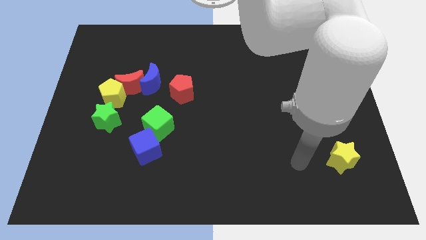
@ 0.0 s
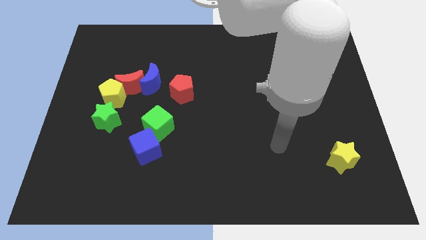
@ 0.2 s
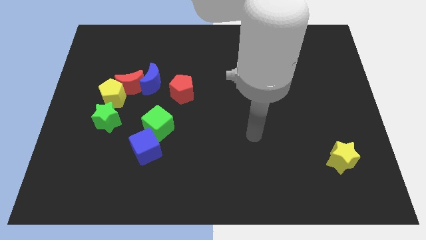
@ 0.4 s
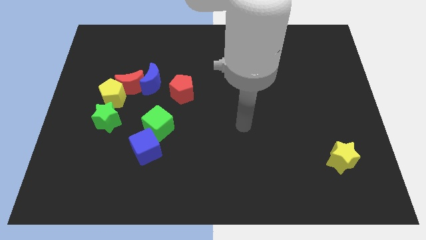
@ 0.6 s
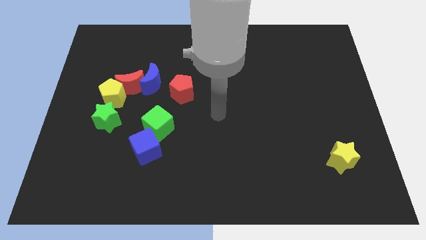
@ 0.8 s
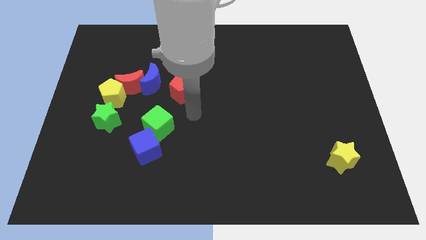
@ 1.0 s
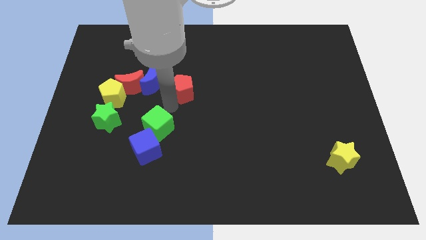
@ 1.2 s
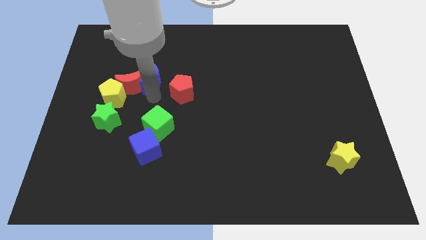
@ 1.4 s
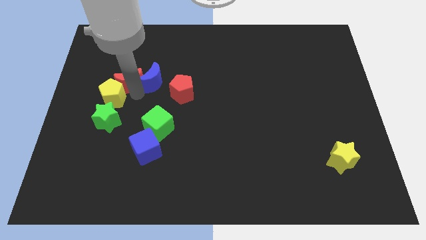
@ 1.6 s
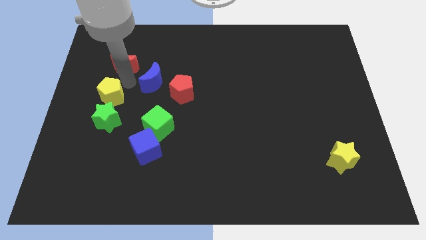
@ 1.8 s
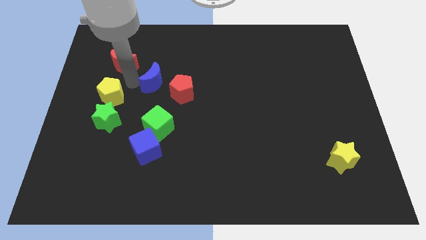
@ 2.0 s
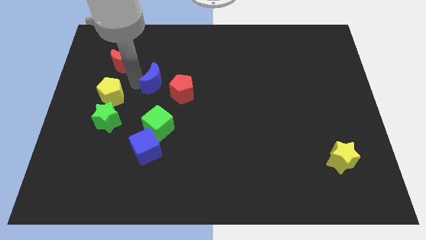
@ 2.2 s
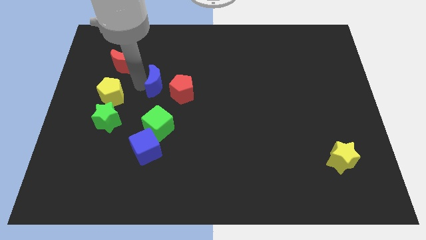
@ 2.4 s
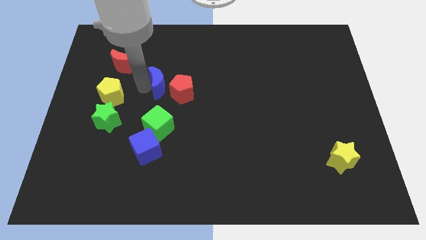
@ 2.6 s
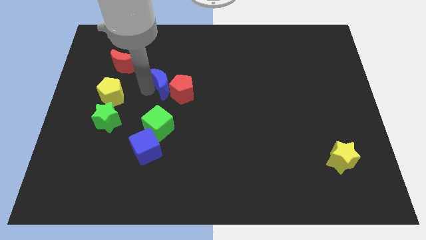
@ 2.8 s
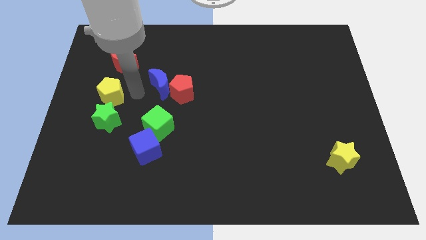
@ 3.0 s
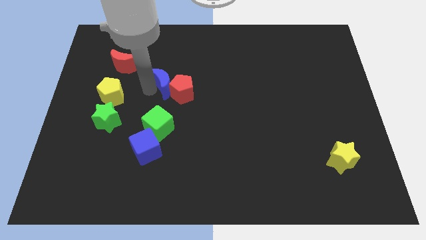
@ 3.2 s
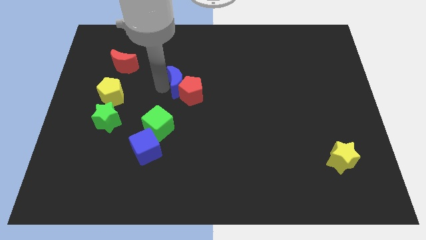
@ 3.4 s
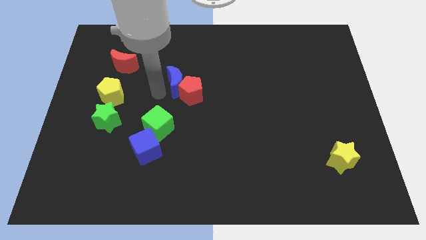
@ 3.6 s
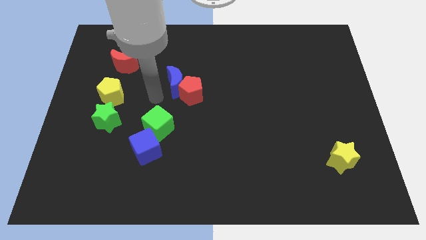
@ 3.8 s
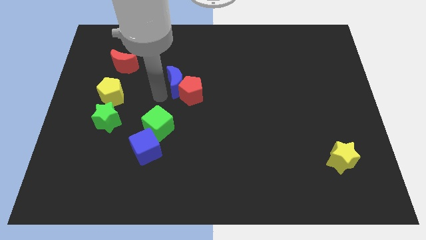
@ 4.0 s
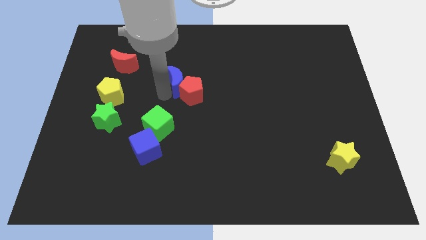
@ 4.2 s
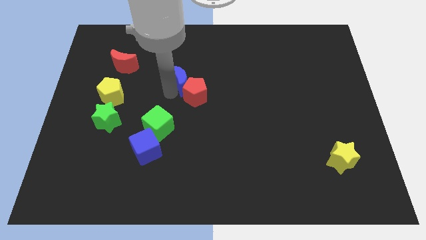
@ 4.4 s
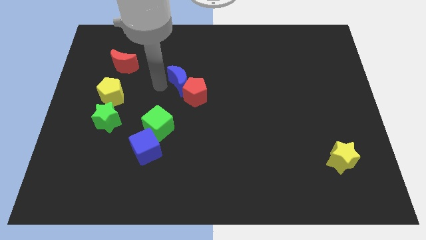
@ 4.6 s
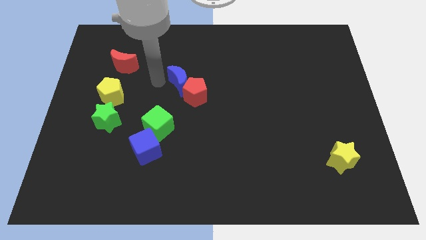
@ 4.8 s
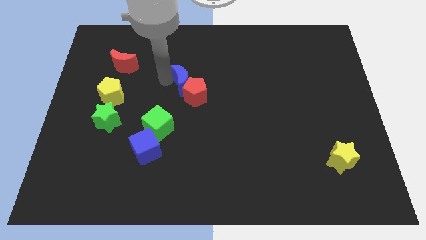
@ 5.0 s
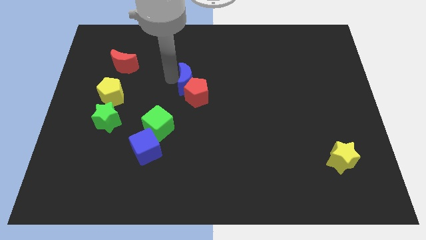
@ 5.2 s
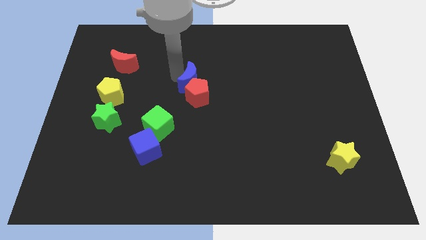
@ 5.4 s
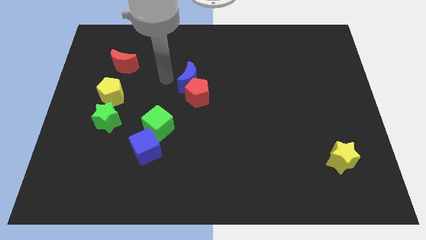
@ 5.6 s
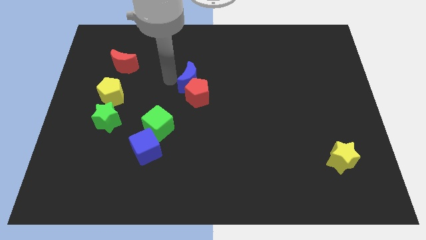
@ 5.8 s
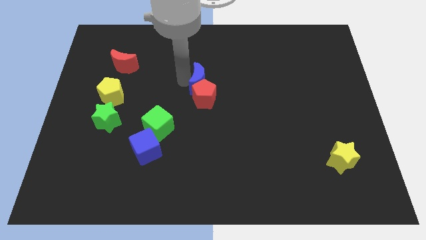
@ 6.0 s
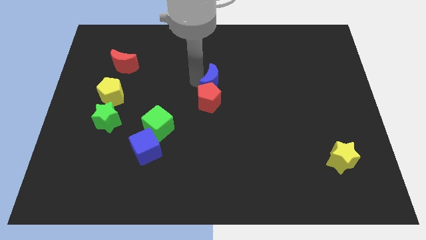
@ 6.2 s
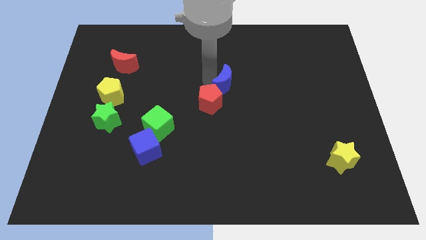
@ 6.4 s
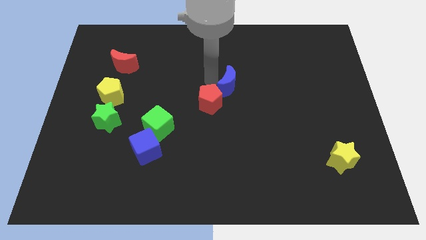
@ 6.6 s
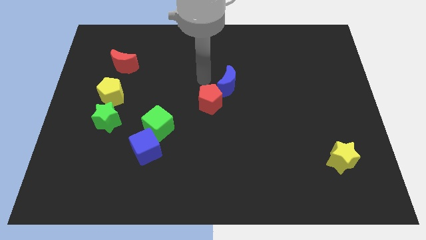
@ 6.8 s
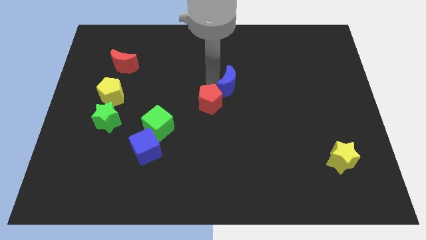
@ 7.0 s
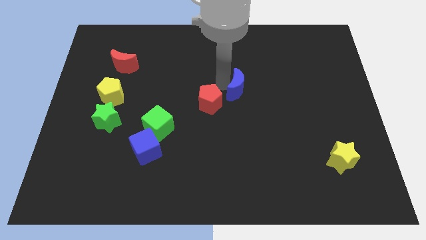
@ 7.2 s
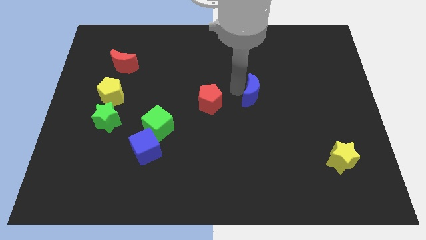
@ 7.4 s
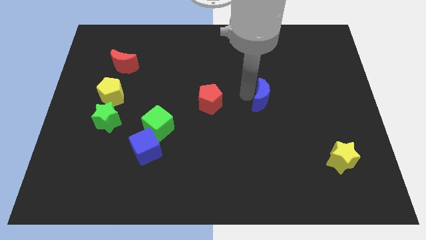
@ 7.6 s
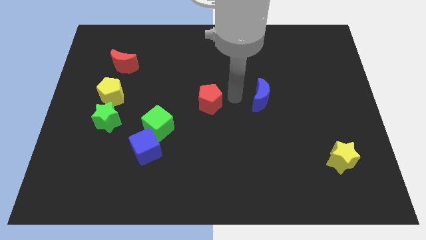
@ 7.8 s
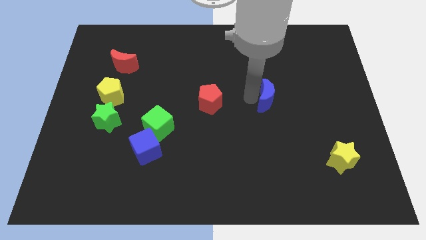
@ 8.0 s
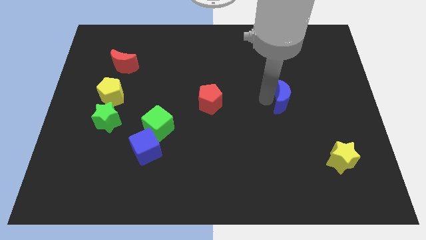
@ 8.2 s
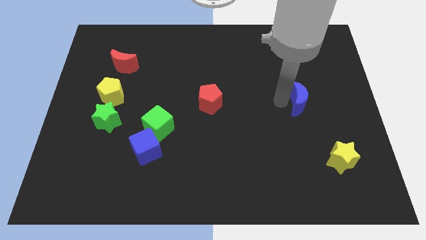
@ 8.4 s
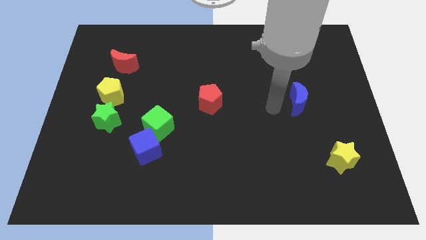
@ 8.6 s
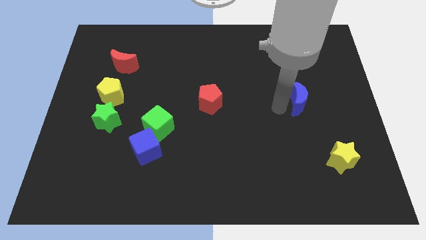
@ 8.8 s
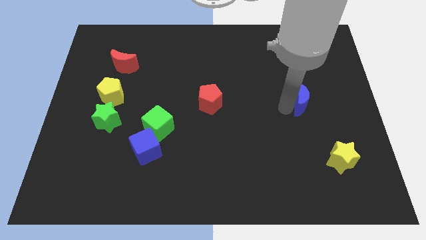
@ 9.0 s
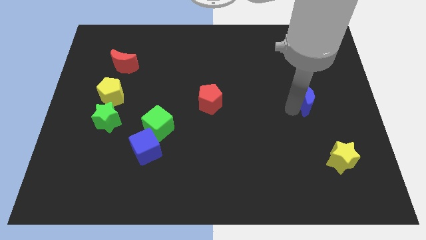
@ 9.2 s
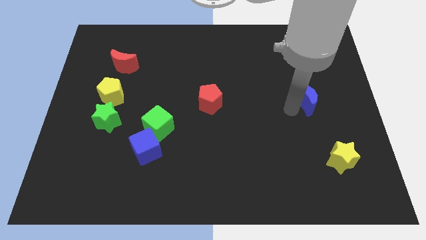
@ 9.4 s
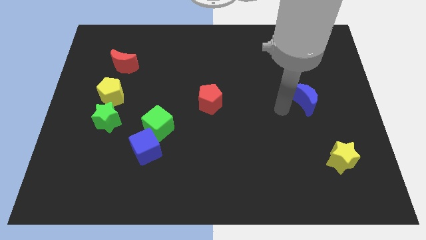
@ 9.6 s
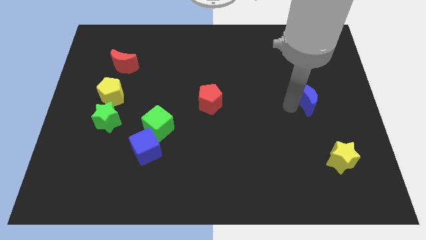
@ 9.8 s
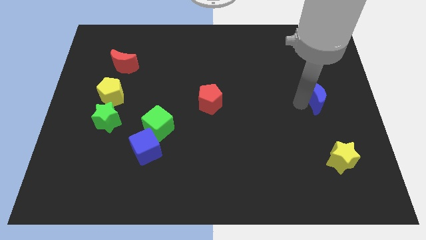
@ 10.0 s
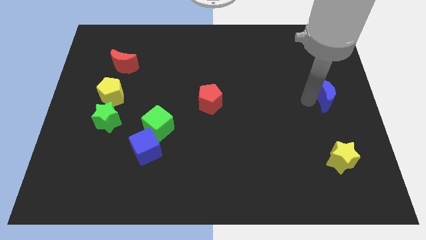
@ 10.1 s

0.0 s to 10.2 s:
move the blue moon to the center right

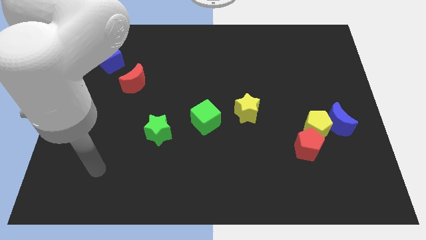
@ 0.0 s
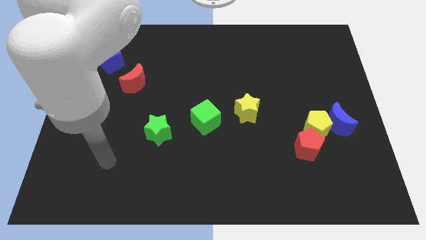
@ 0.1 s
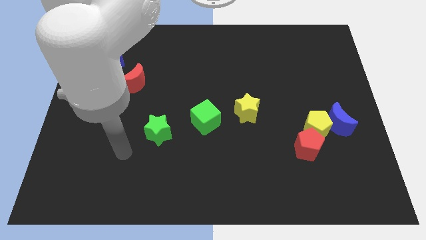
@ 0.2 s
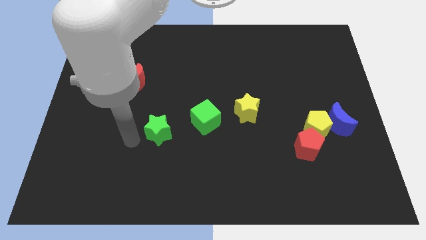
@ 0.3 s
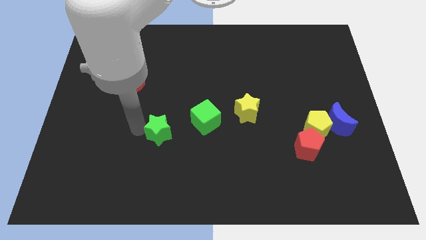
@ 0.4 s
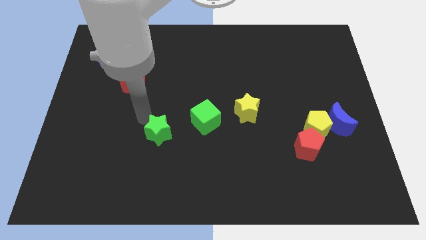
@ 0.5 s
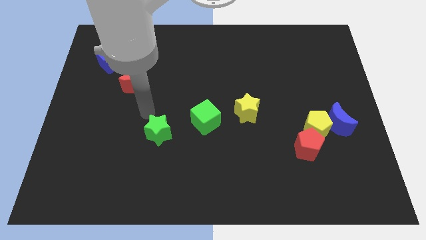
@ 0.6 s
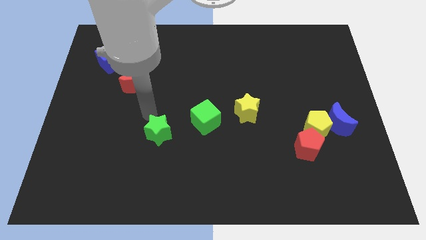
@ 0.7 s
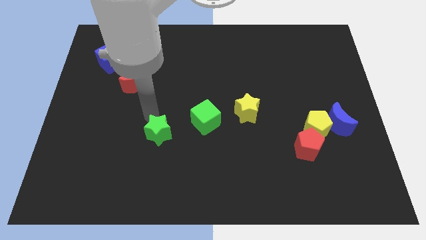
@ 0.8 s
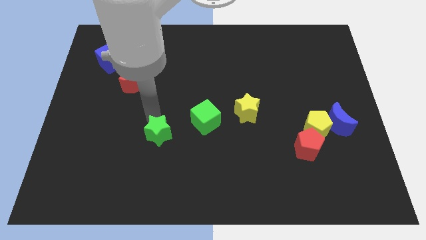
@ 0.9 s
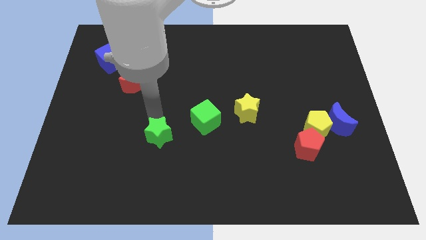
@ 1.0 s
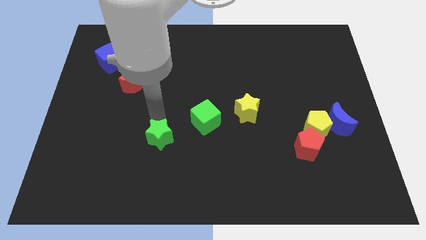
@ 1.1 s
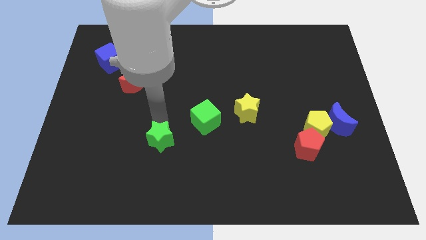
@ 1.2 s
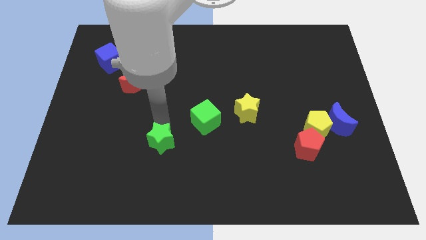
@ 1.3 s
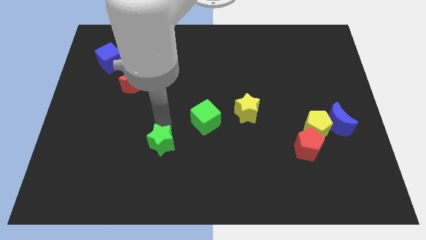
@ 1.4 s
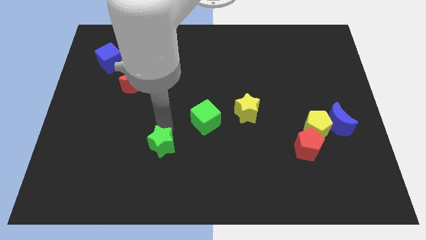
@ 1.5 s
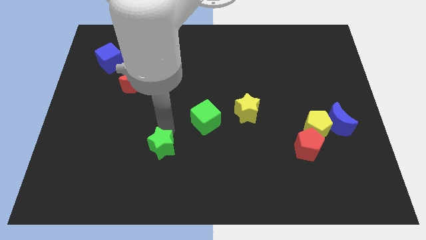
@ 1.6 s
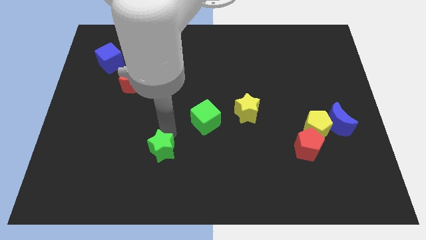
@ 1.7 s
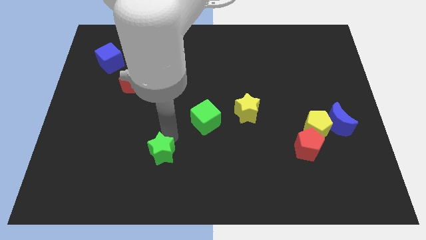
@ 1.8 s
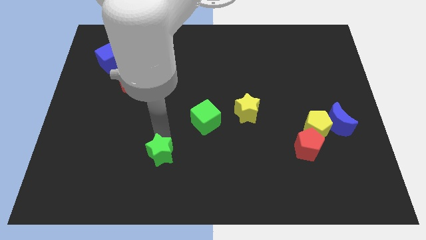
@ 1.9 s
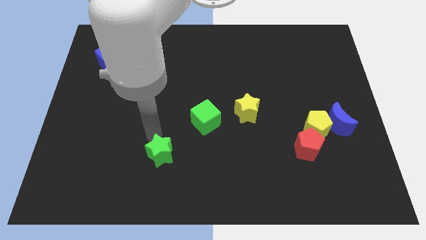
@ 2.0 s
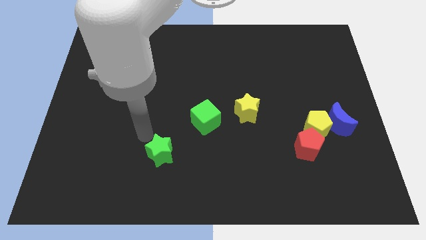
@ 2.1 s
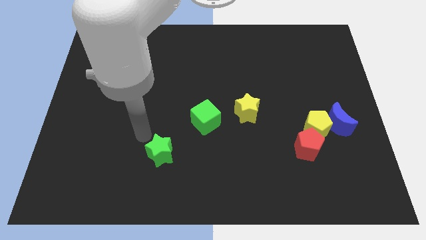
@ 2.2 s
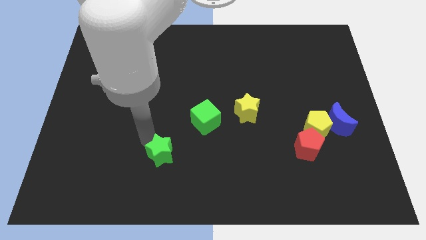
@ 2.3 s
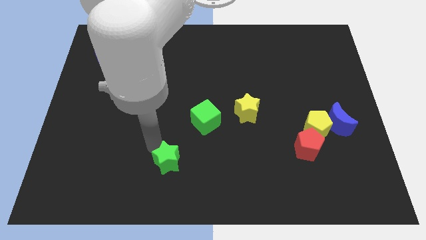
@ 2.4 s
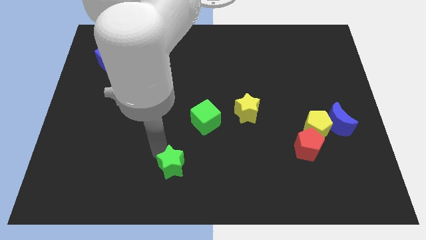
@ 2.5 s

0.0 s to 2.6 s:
slide the green star to the bottom side
